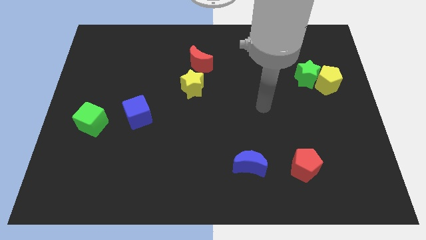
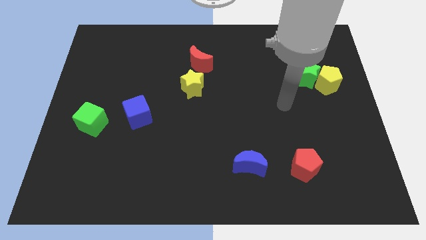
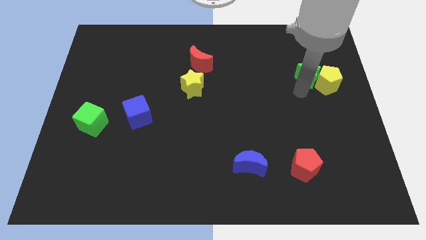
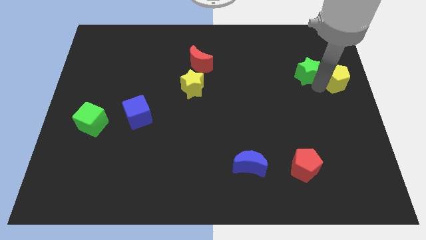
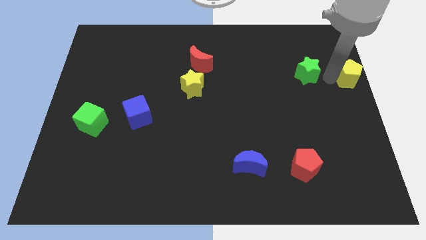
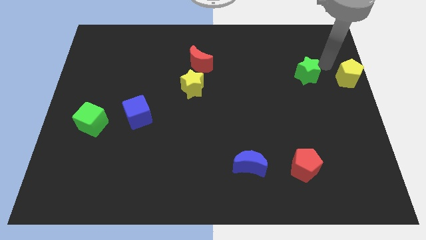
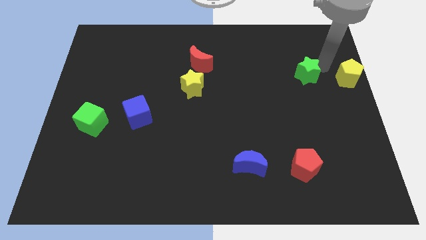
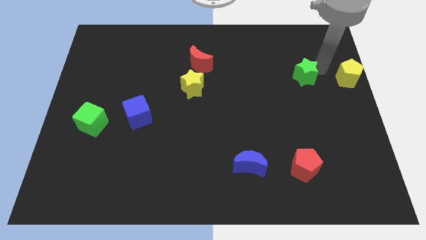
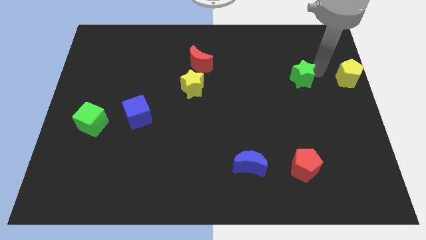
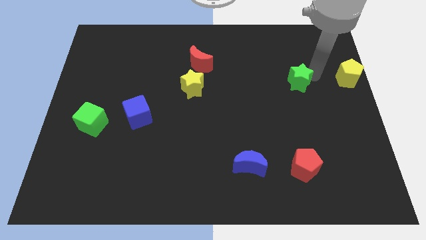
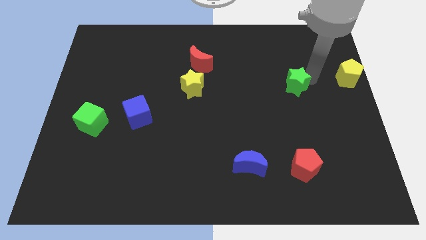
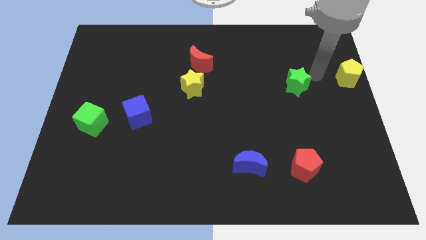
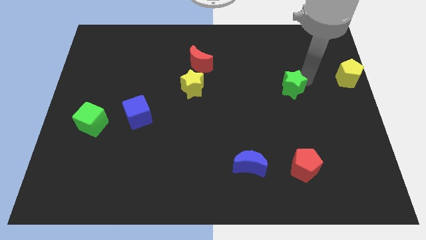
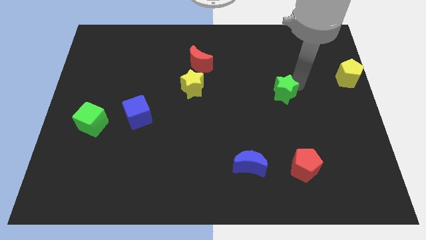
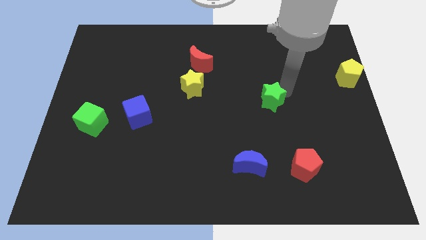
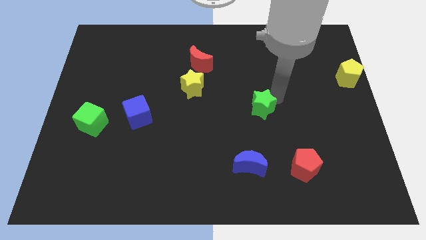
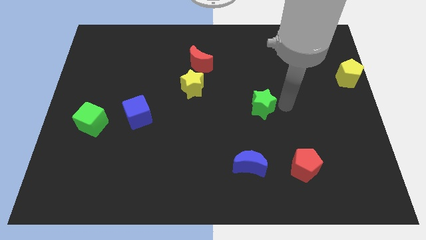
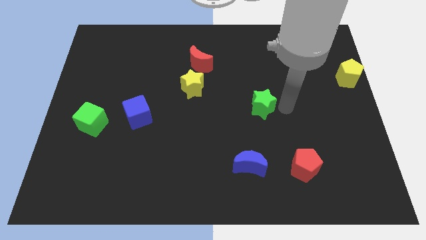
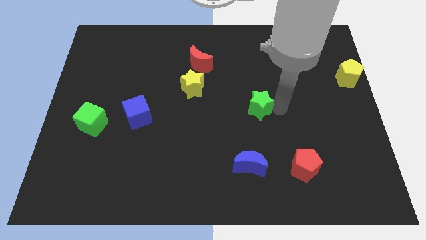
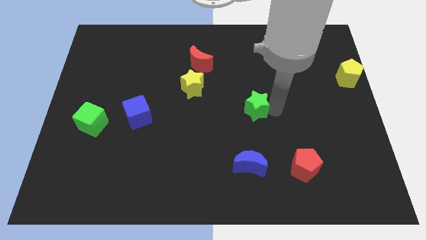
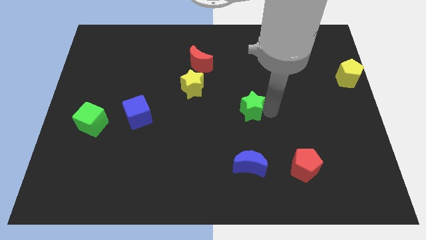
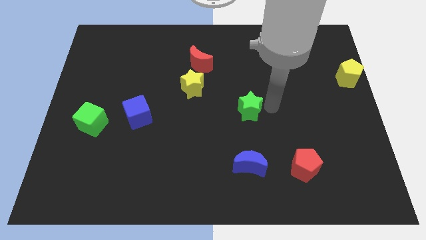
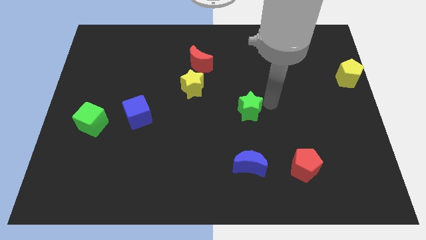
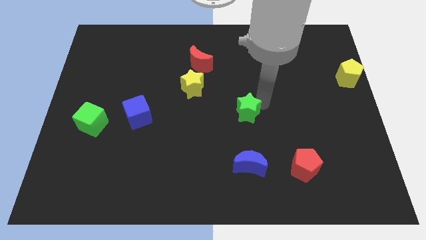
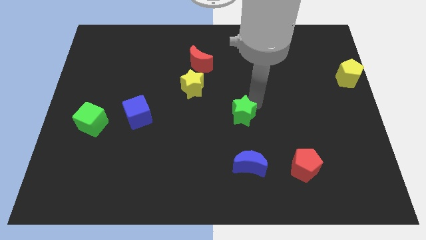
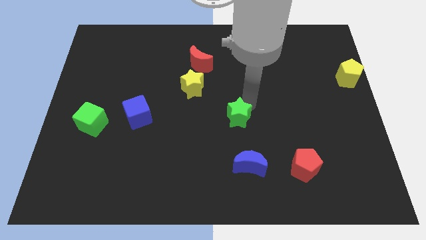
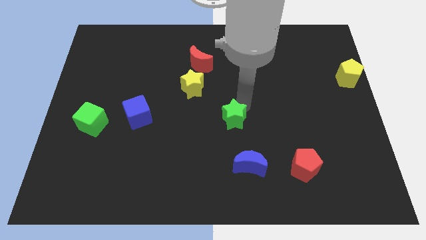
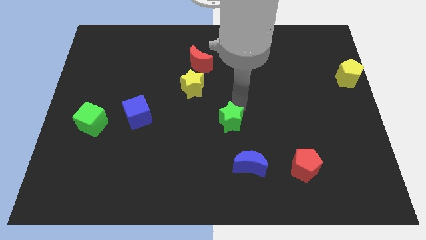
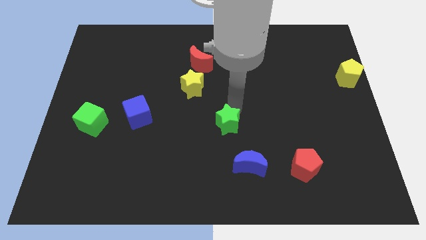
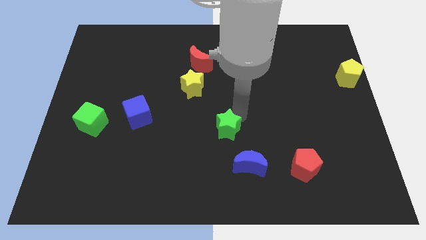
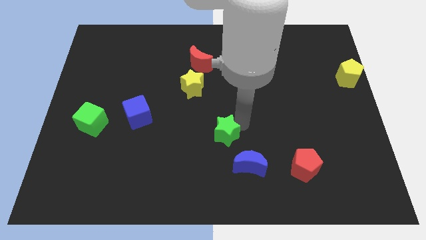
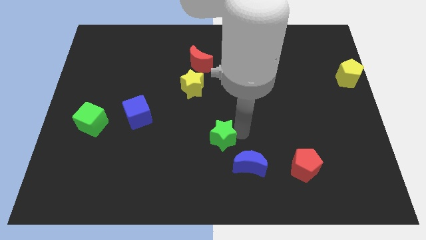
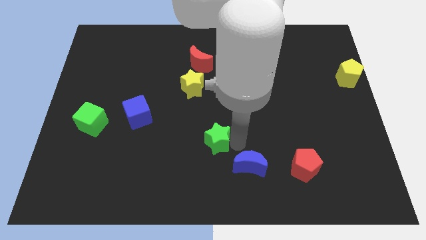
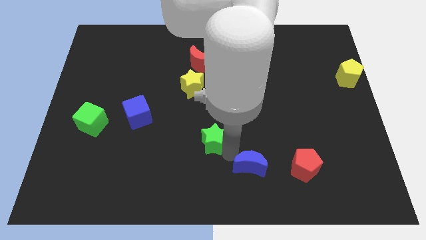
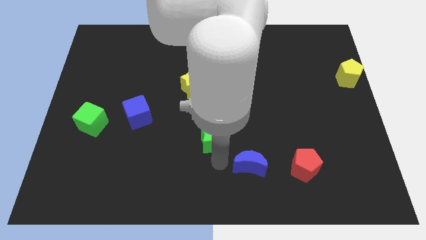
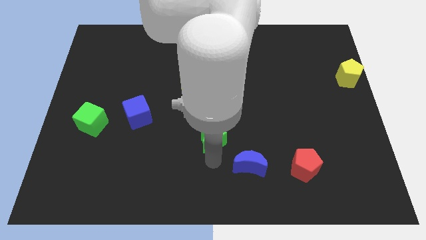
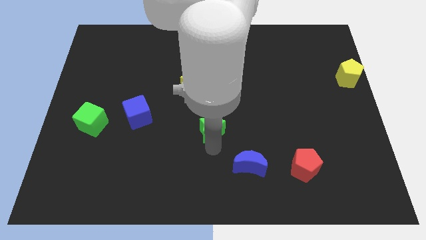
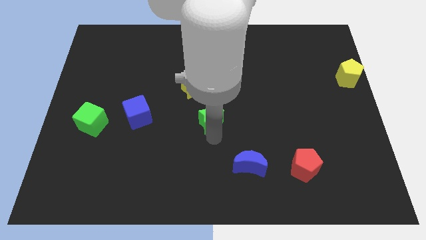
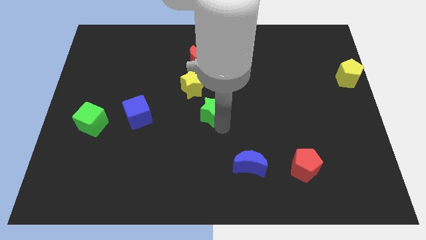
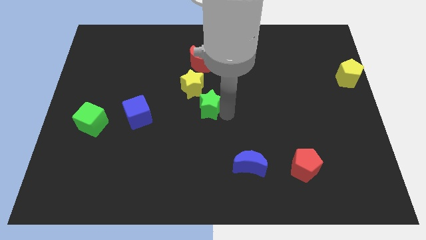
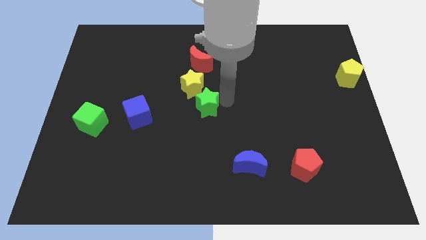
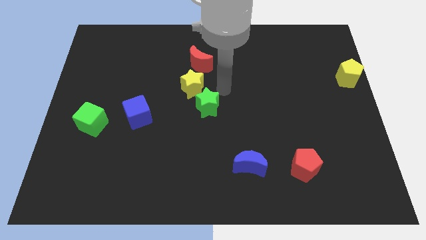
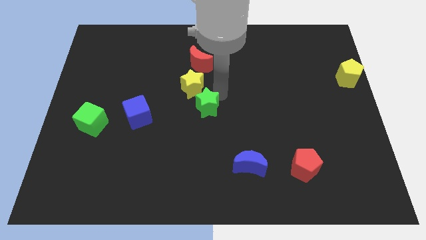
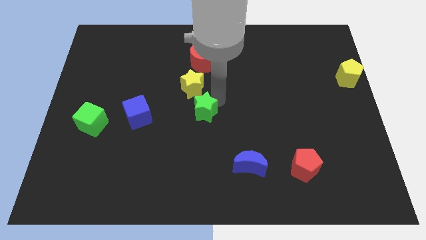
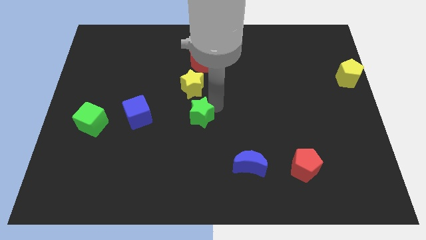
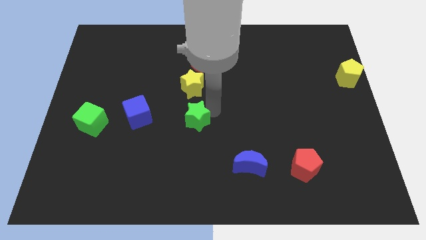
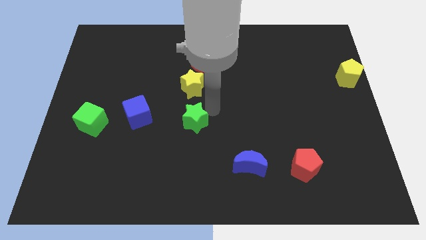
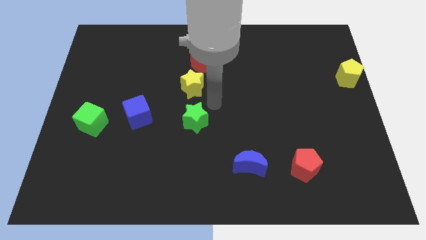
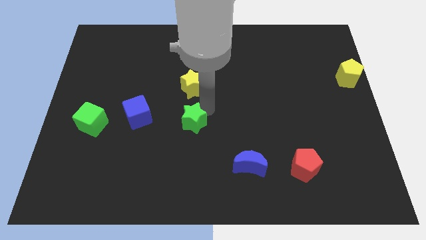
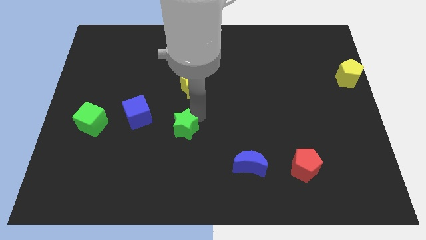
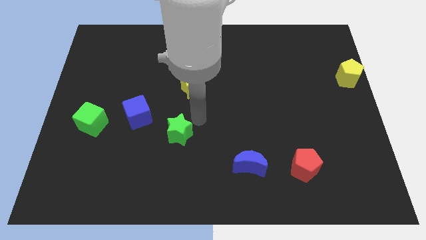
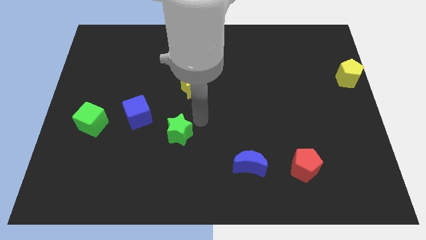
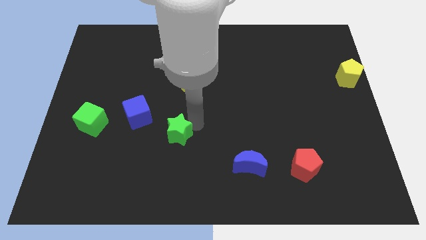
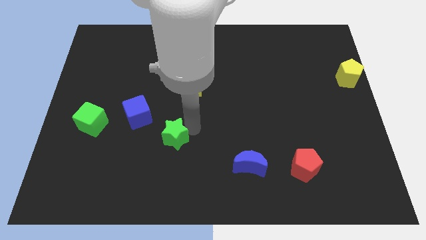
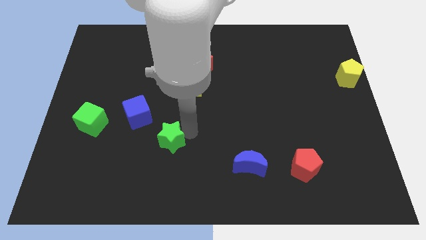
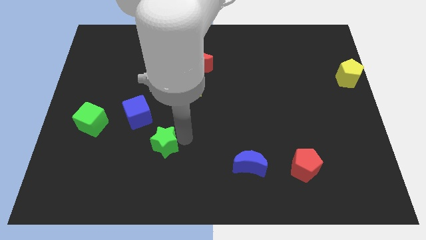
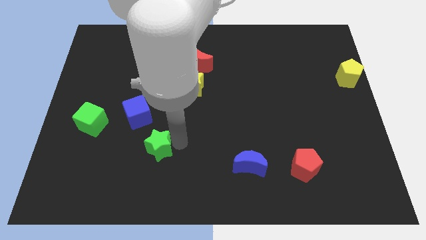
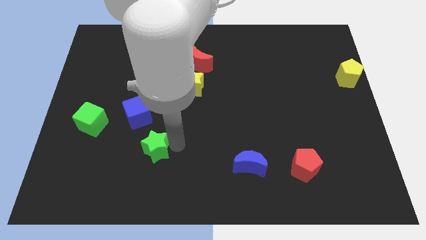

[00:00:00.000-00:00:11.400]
push the green star to the bottom side of the blue cube

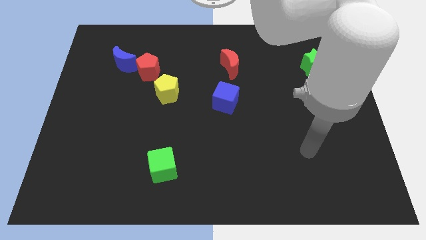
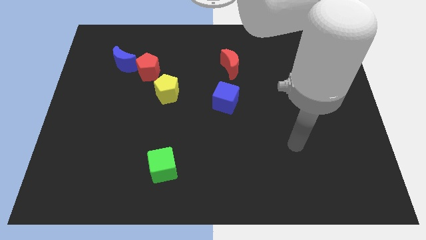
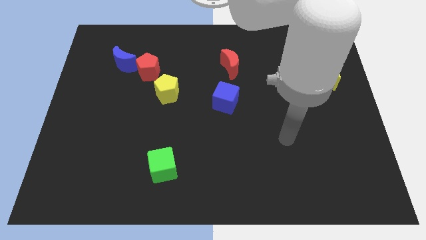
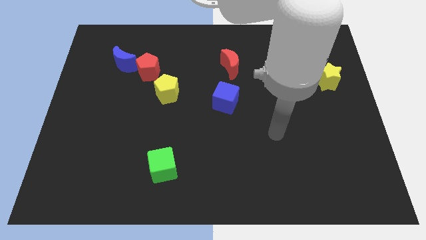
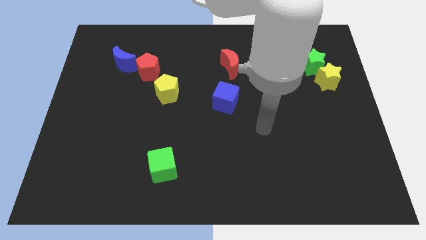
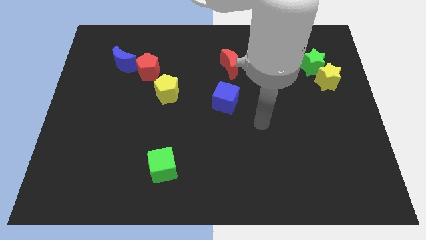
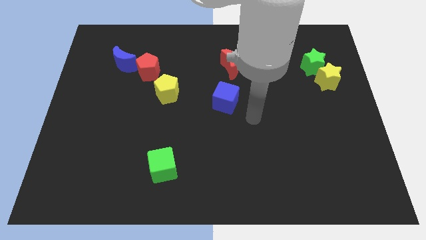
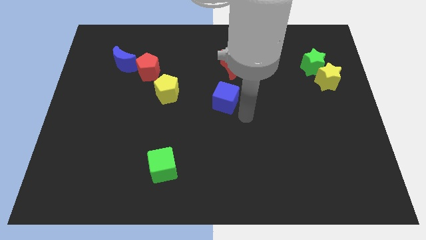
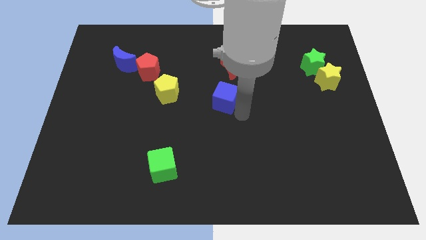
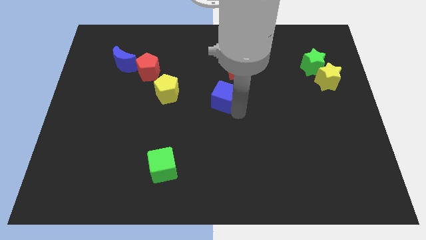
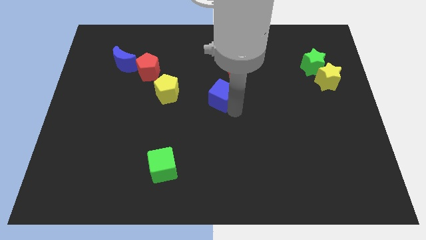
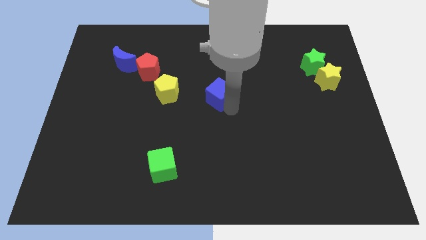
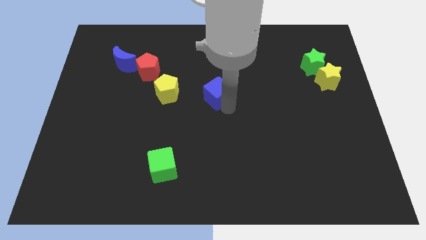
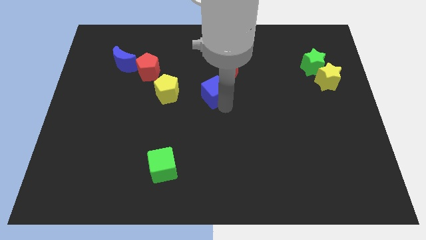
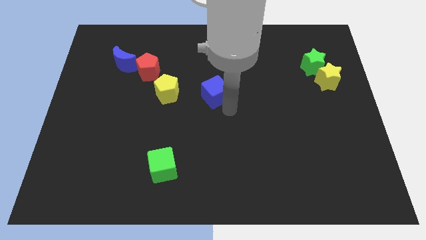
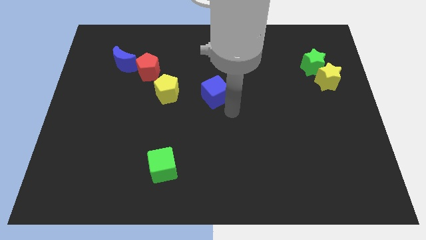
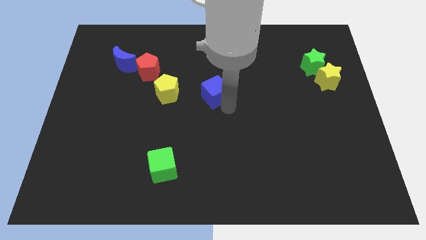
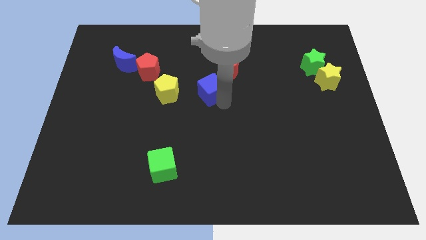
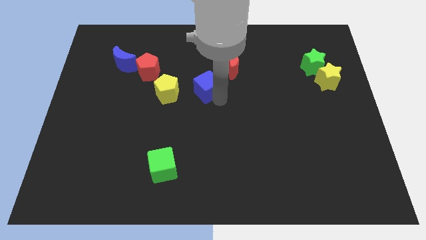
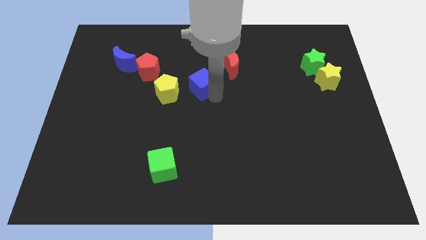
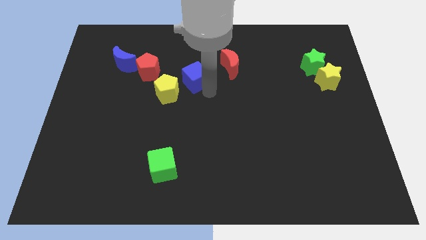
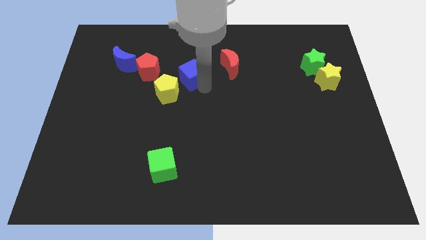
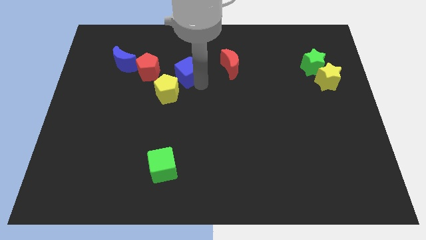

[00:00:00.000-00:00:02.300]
move the blue cube to the top side of the yellow pentagon

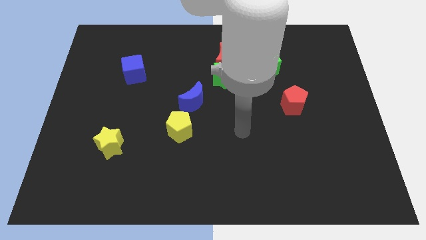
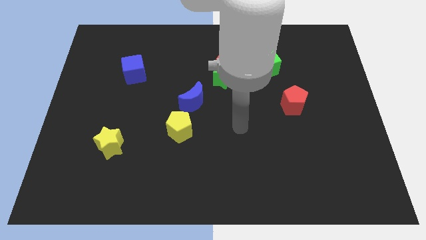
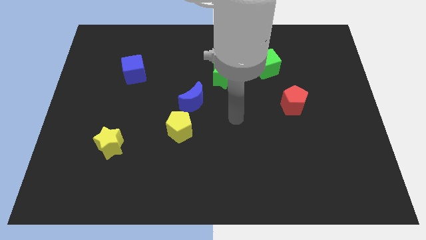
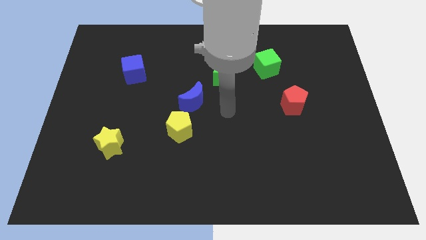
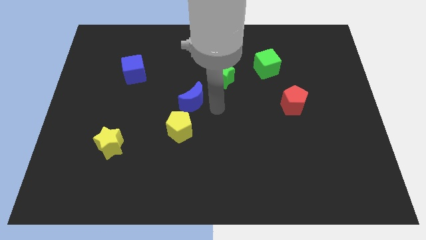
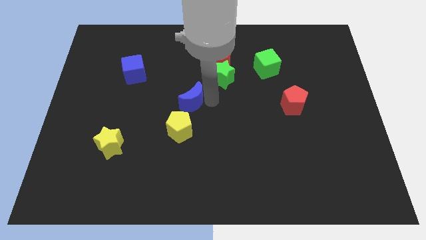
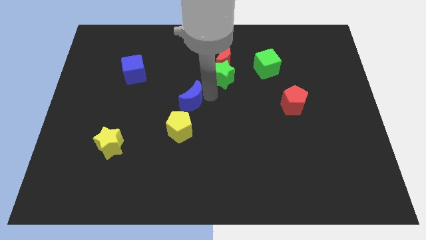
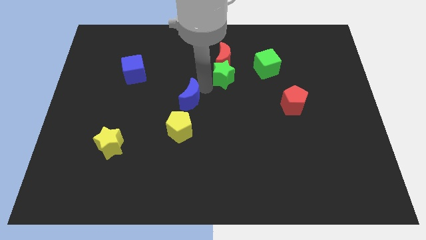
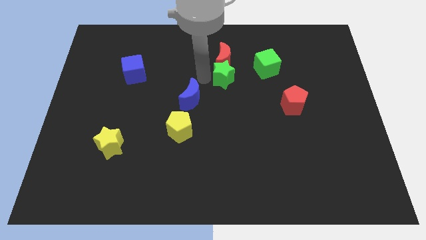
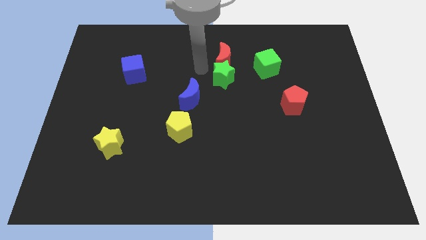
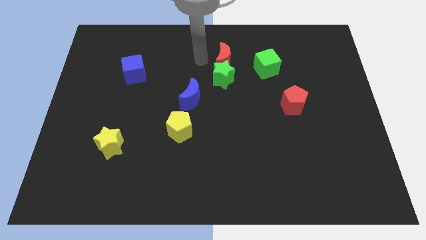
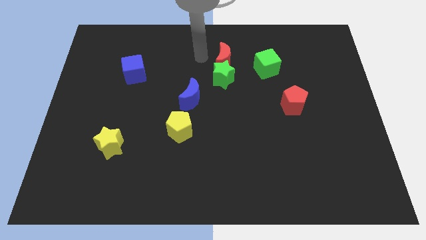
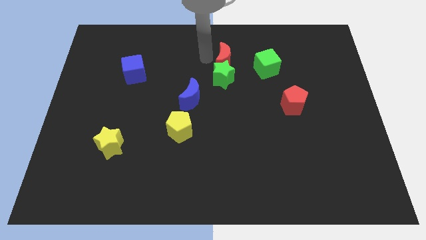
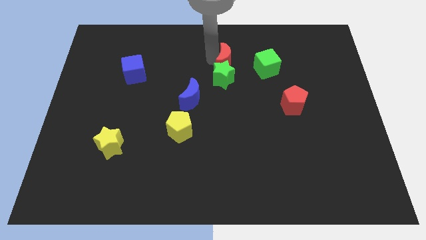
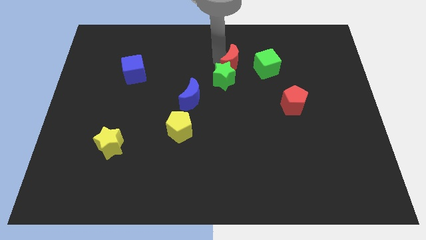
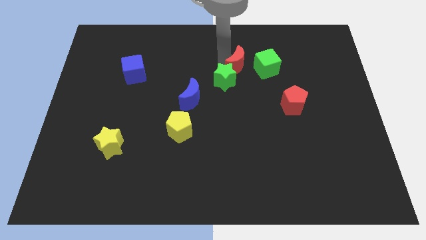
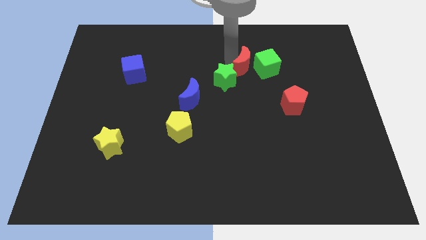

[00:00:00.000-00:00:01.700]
push the red moon to the bottom left side of the green cube
